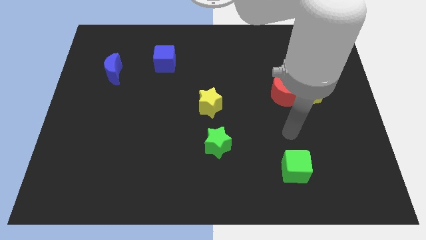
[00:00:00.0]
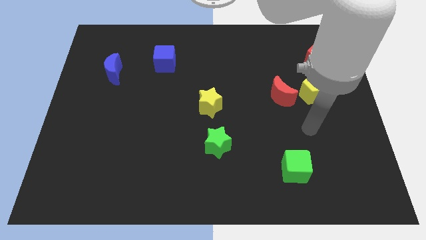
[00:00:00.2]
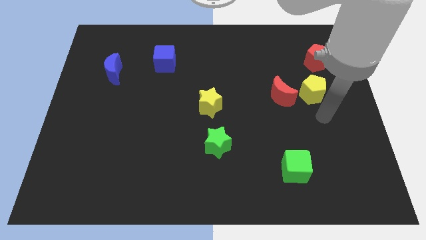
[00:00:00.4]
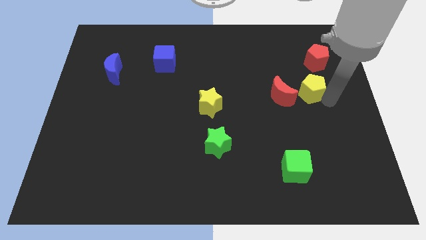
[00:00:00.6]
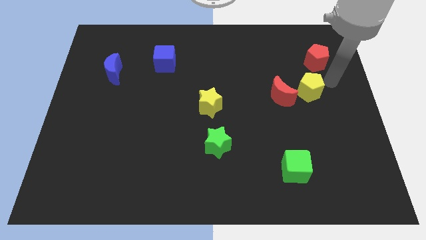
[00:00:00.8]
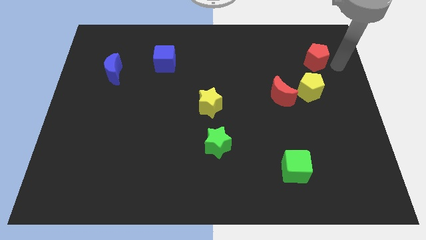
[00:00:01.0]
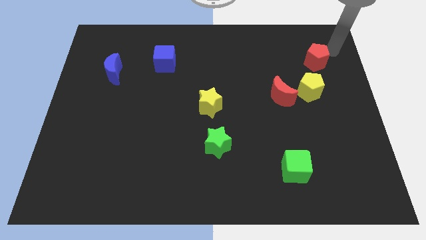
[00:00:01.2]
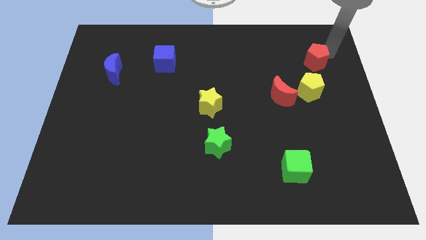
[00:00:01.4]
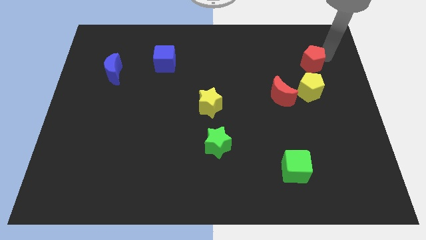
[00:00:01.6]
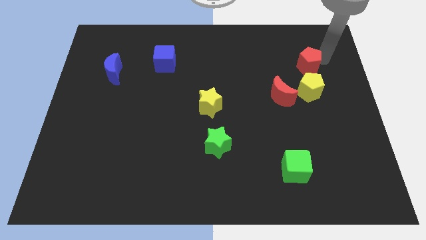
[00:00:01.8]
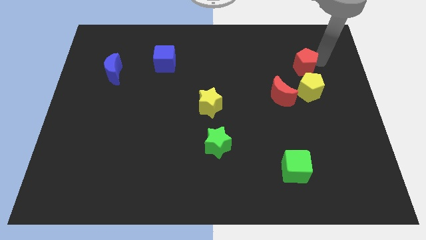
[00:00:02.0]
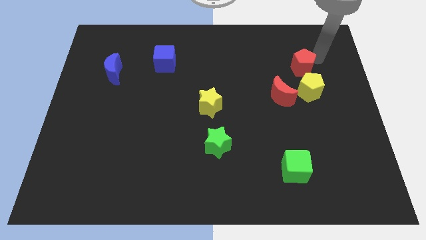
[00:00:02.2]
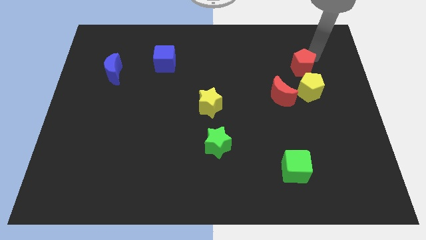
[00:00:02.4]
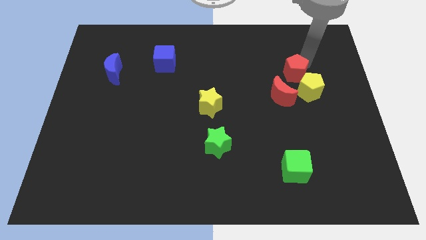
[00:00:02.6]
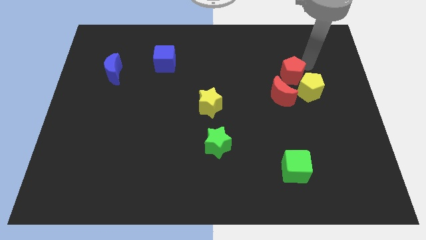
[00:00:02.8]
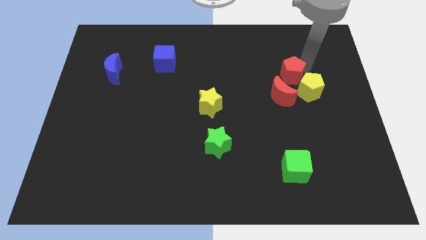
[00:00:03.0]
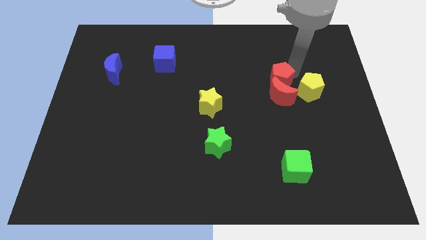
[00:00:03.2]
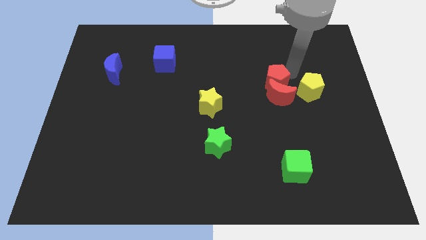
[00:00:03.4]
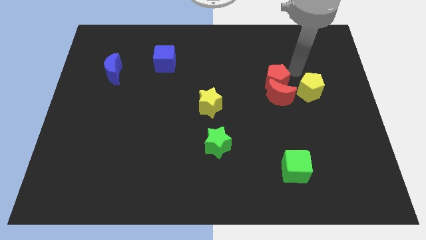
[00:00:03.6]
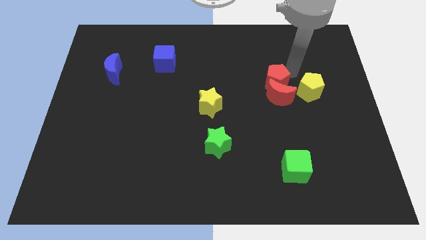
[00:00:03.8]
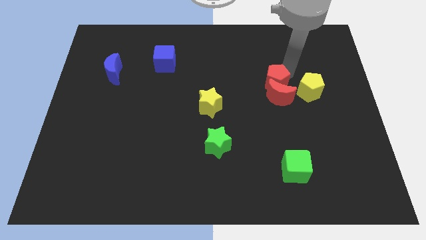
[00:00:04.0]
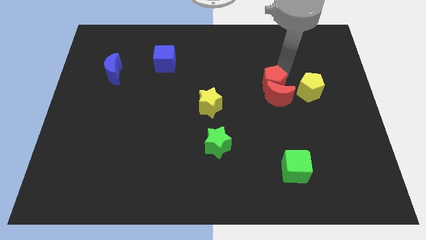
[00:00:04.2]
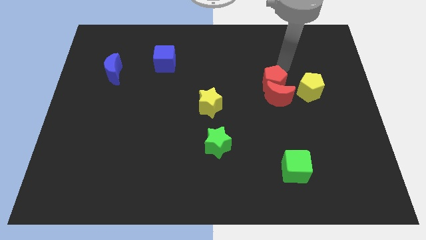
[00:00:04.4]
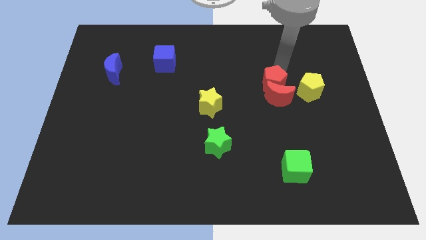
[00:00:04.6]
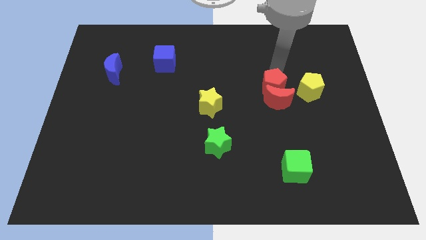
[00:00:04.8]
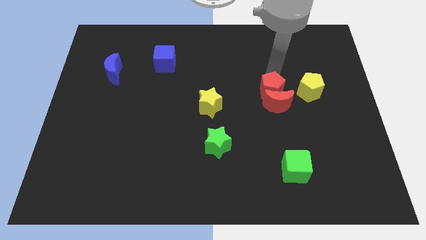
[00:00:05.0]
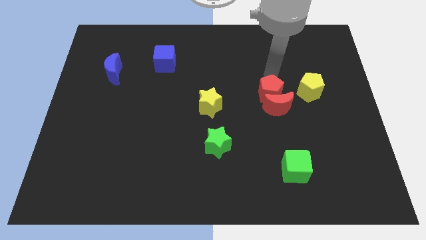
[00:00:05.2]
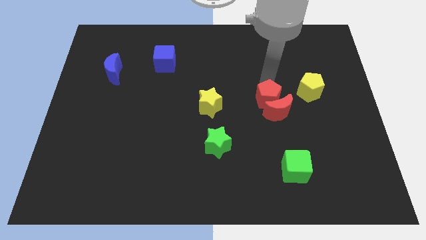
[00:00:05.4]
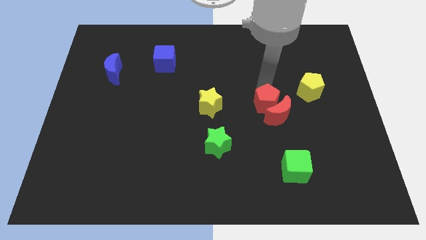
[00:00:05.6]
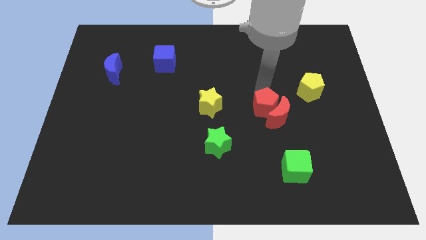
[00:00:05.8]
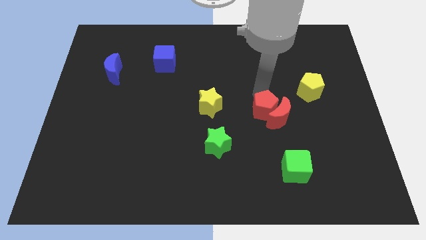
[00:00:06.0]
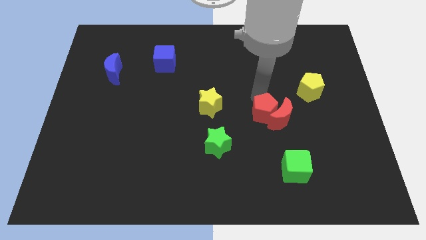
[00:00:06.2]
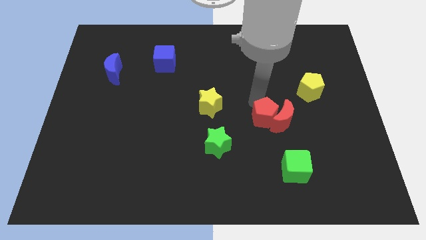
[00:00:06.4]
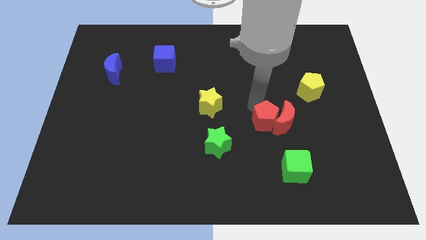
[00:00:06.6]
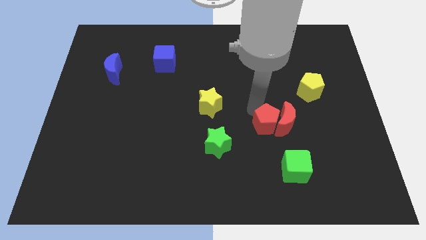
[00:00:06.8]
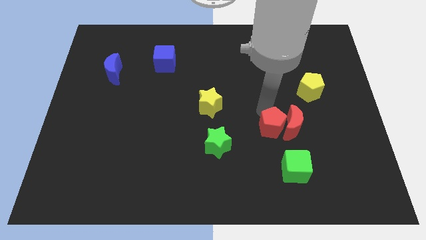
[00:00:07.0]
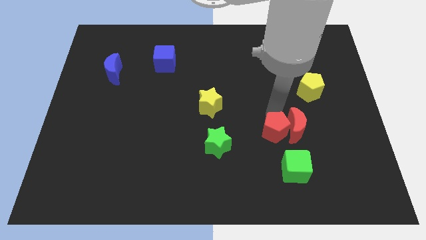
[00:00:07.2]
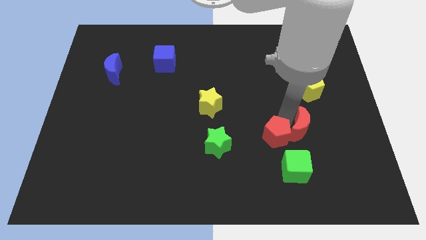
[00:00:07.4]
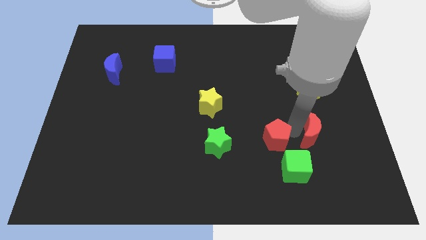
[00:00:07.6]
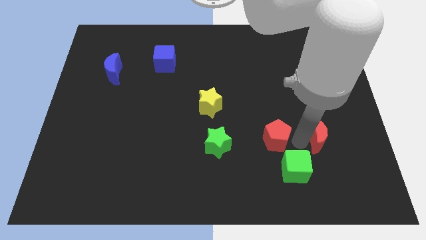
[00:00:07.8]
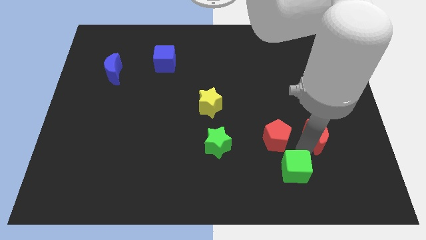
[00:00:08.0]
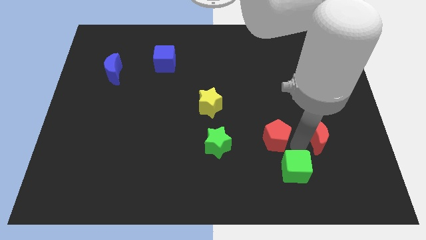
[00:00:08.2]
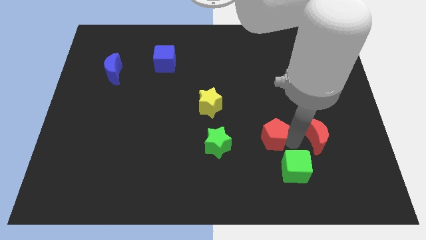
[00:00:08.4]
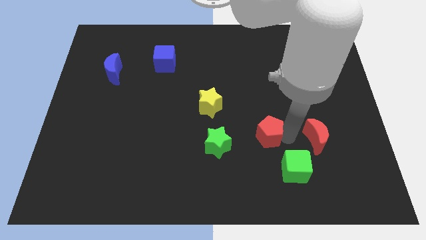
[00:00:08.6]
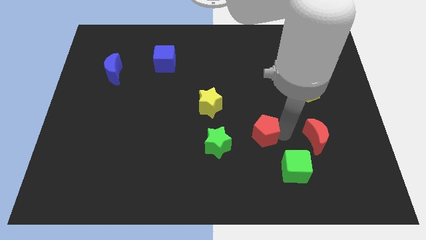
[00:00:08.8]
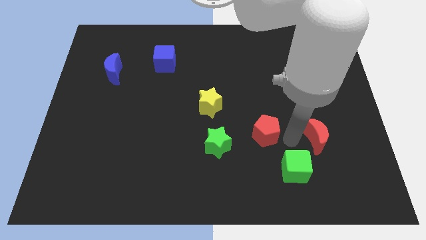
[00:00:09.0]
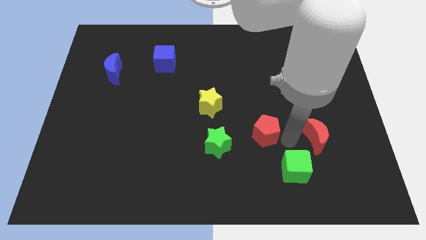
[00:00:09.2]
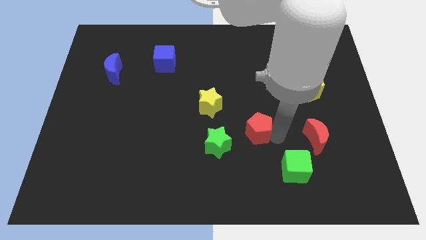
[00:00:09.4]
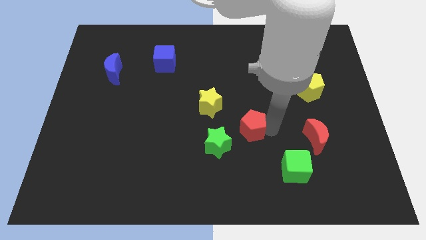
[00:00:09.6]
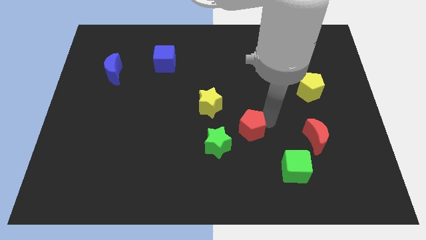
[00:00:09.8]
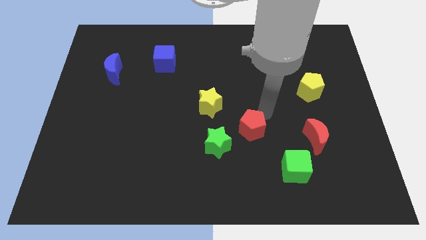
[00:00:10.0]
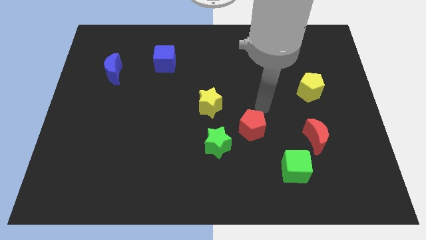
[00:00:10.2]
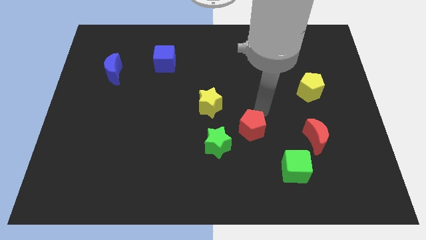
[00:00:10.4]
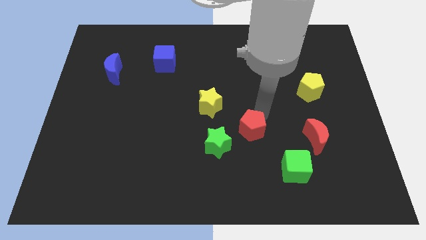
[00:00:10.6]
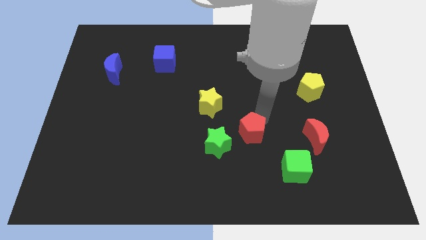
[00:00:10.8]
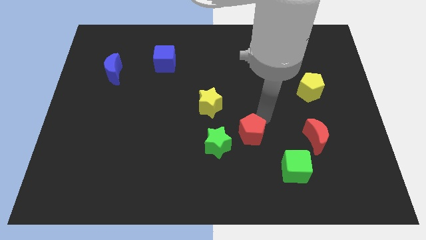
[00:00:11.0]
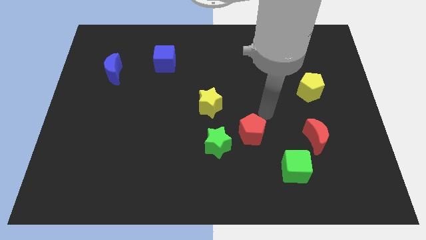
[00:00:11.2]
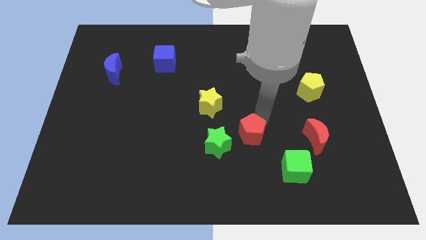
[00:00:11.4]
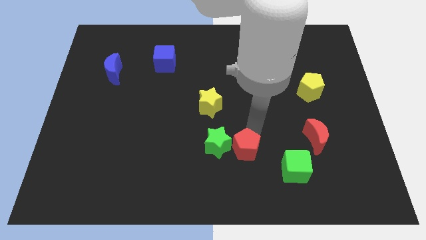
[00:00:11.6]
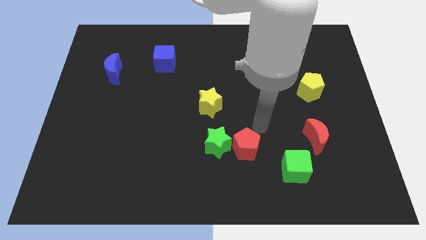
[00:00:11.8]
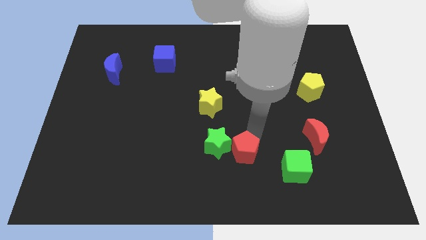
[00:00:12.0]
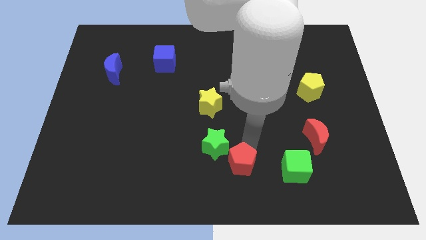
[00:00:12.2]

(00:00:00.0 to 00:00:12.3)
slide the red pentagon to the bottom side
